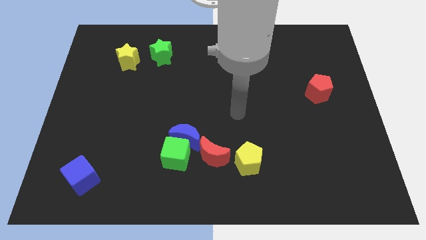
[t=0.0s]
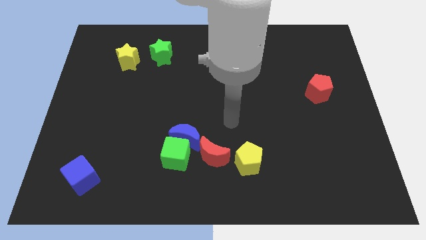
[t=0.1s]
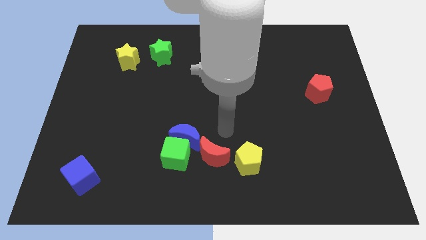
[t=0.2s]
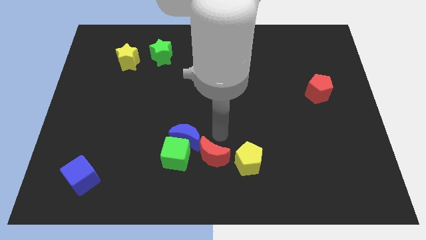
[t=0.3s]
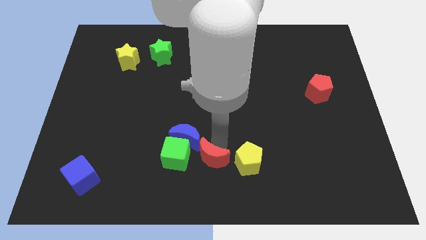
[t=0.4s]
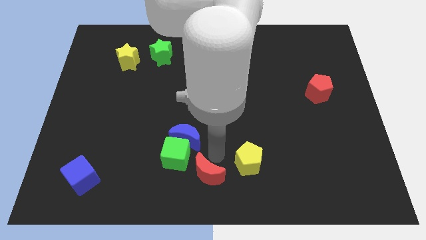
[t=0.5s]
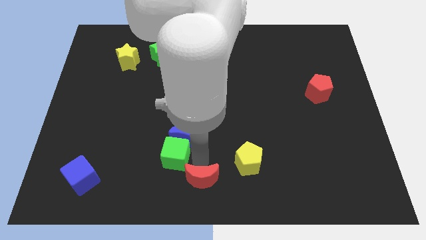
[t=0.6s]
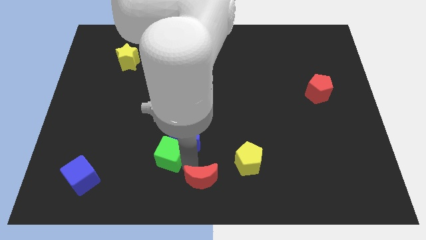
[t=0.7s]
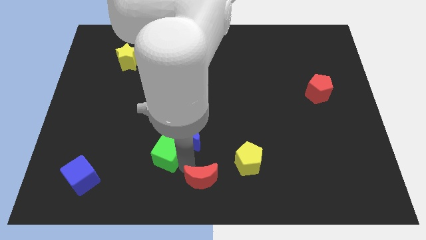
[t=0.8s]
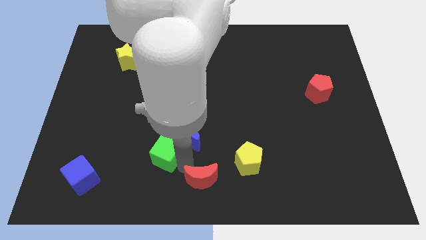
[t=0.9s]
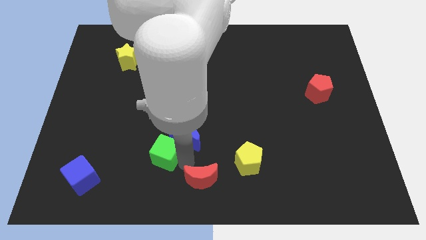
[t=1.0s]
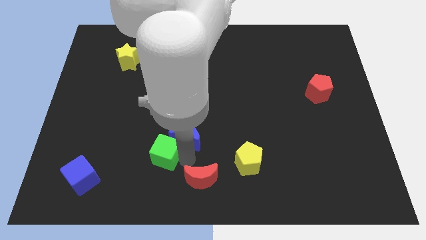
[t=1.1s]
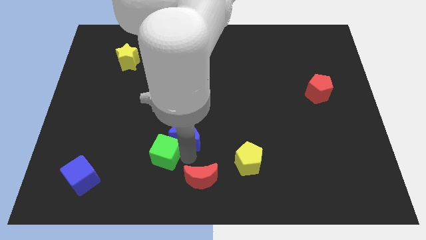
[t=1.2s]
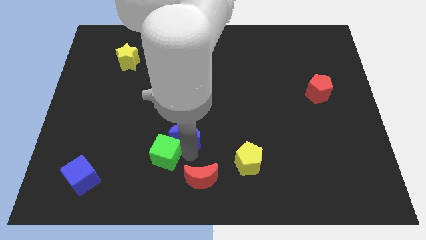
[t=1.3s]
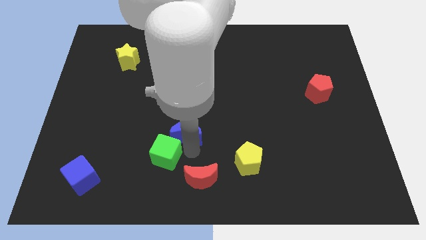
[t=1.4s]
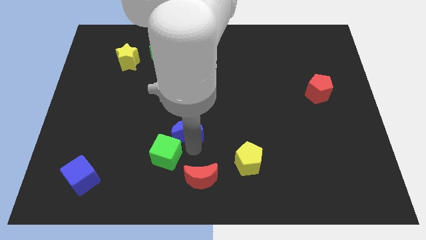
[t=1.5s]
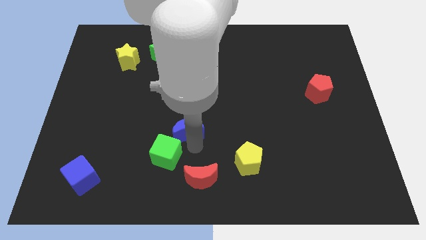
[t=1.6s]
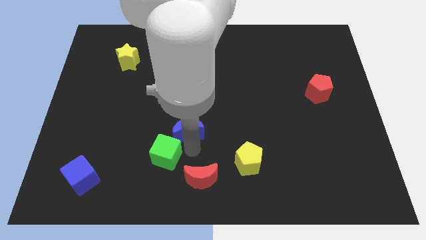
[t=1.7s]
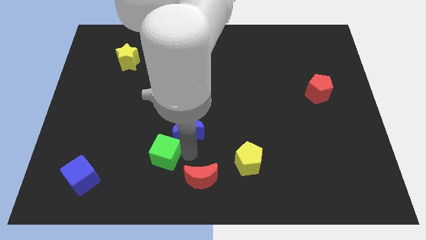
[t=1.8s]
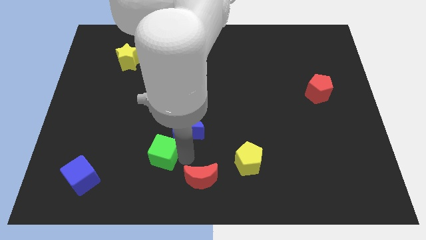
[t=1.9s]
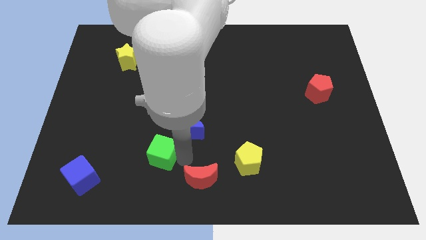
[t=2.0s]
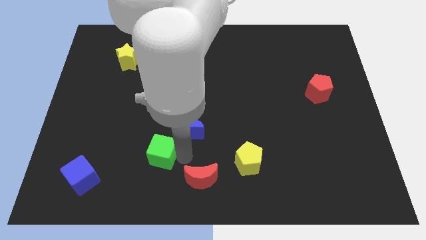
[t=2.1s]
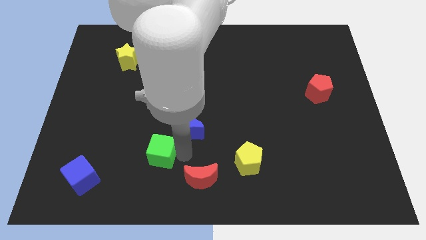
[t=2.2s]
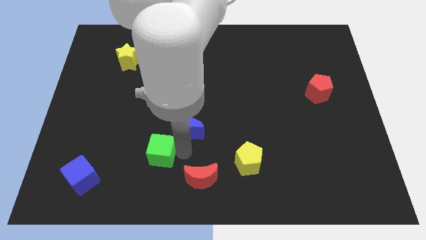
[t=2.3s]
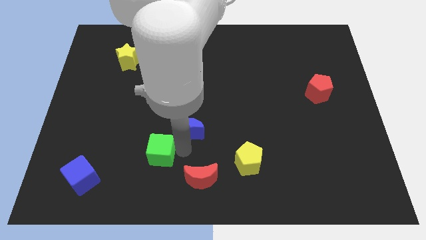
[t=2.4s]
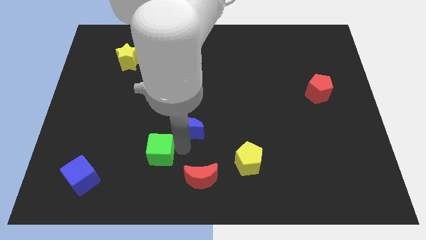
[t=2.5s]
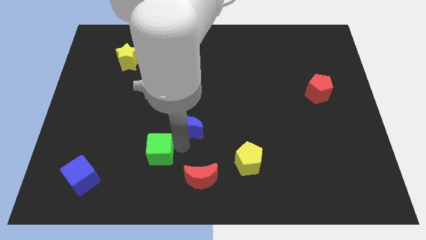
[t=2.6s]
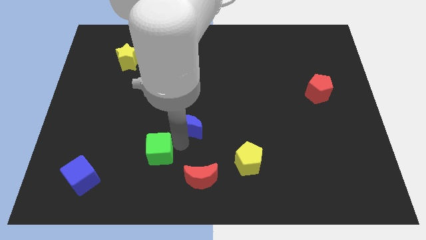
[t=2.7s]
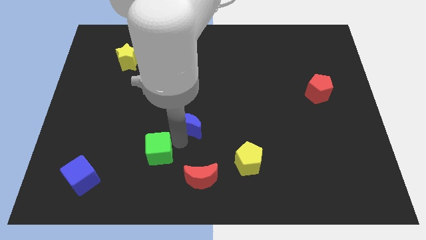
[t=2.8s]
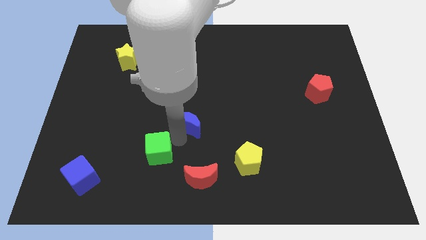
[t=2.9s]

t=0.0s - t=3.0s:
pull the blue moon apart from the green cube and red moon

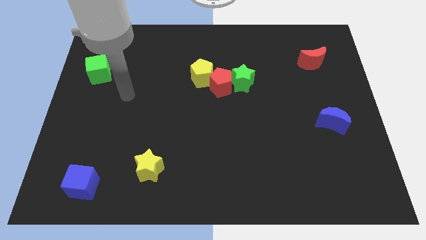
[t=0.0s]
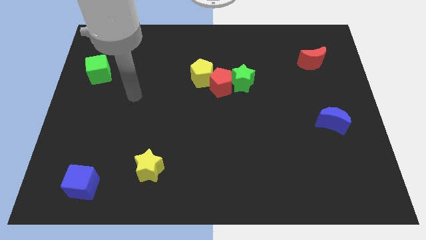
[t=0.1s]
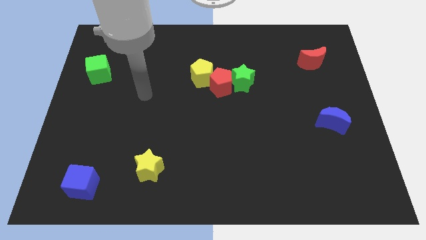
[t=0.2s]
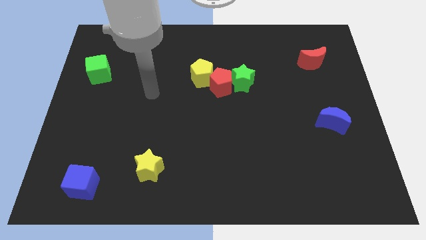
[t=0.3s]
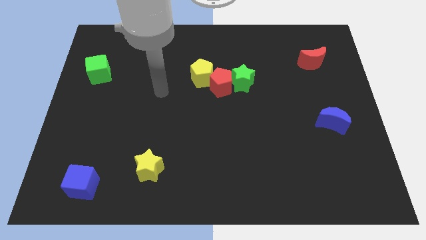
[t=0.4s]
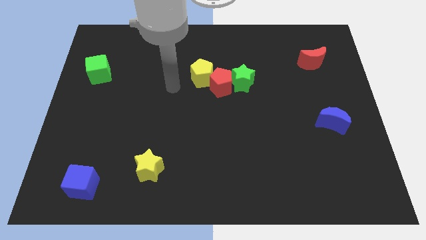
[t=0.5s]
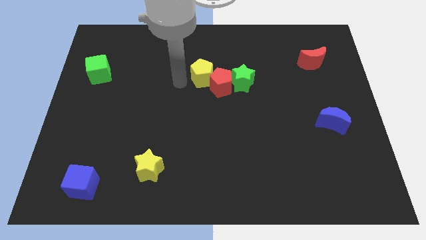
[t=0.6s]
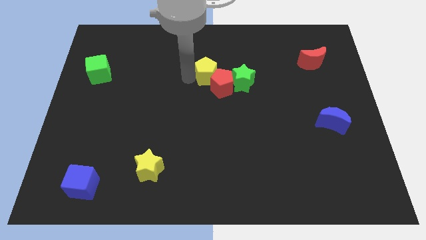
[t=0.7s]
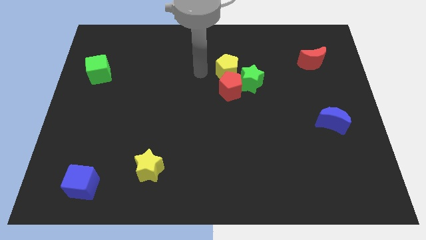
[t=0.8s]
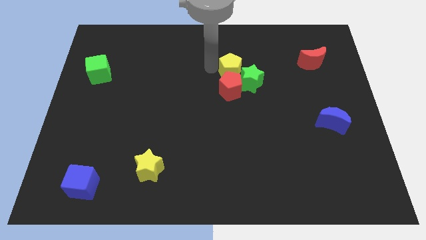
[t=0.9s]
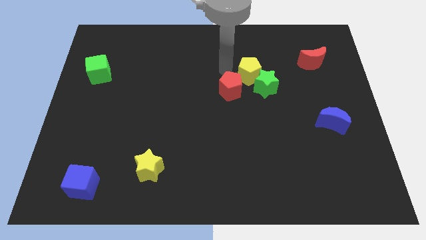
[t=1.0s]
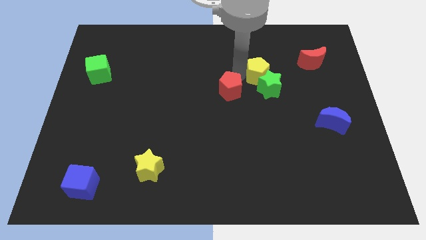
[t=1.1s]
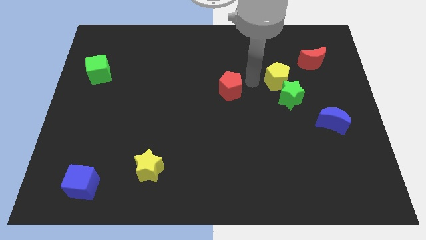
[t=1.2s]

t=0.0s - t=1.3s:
move the red pentagon away from the green star and yellow pentagon

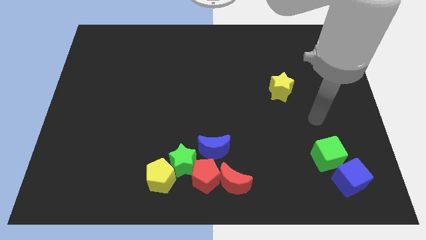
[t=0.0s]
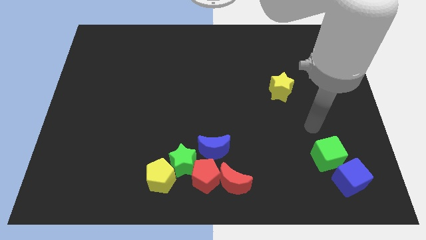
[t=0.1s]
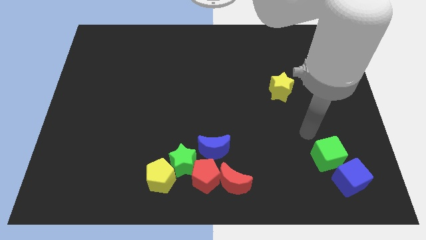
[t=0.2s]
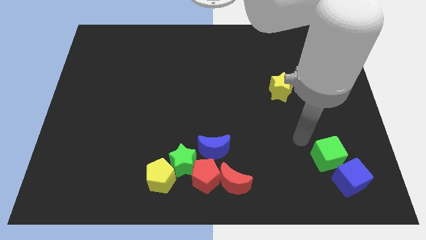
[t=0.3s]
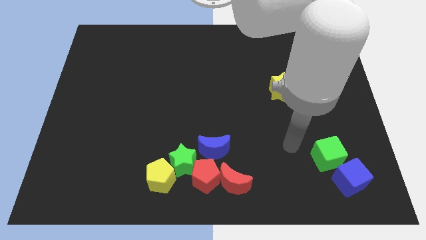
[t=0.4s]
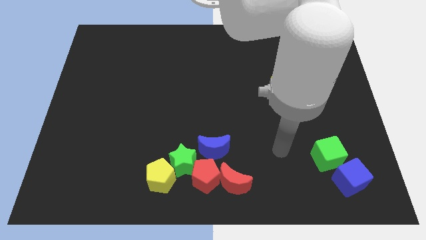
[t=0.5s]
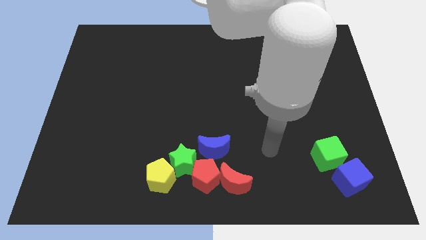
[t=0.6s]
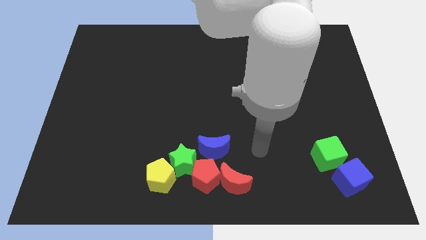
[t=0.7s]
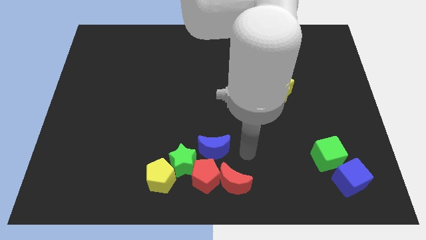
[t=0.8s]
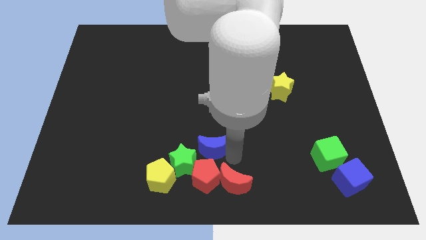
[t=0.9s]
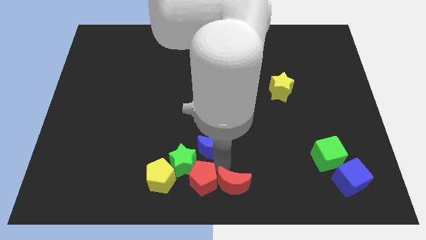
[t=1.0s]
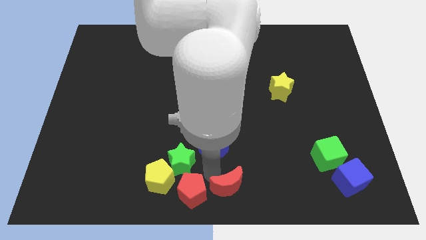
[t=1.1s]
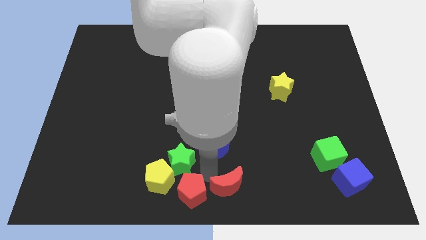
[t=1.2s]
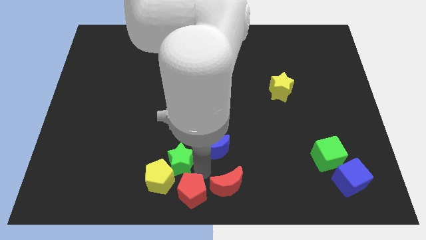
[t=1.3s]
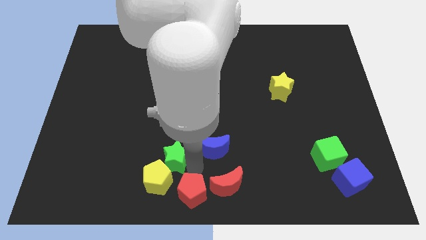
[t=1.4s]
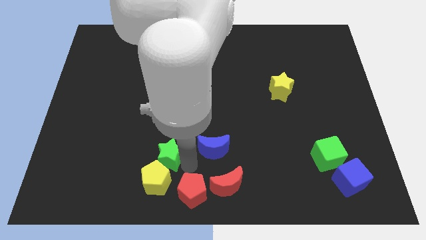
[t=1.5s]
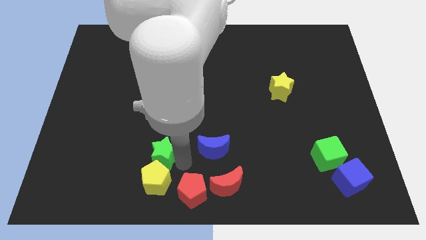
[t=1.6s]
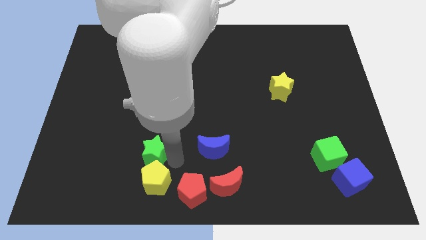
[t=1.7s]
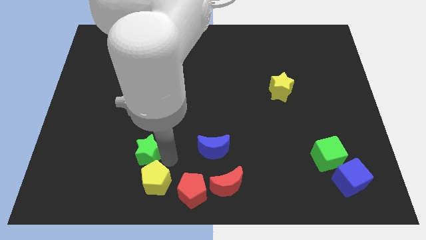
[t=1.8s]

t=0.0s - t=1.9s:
pull the green star apart from the group of blocks

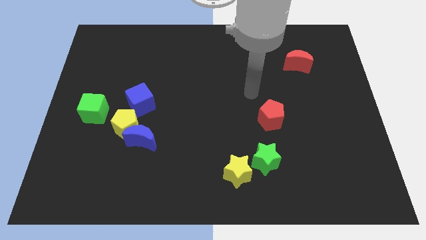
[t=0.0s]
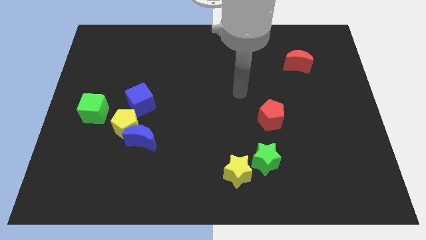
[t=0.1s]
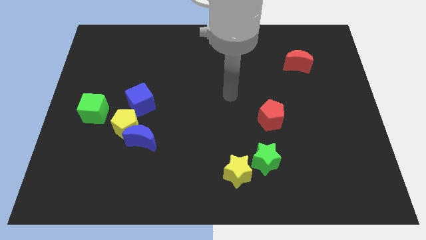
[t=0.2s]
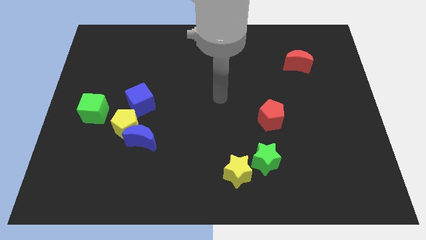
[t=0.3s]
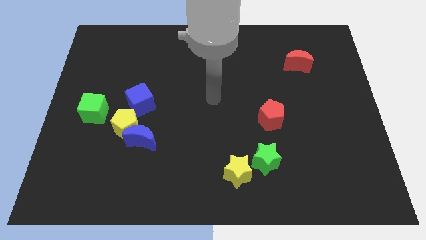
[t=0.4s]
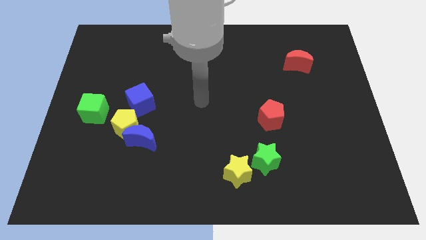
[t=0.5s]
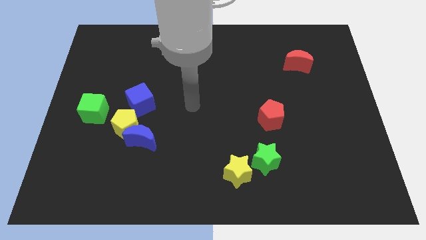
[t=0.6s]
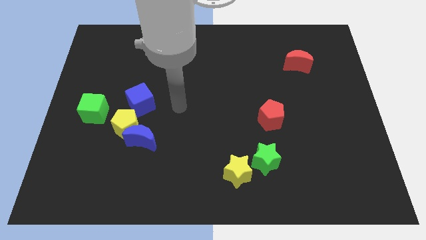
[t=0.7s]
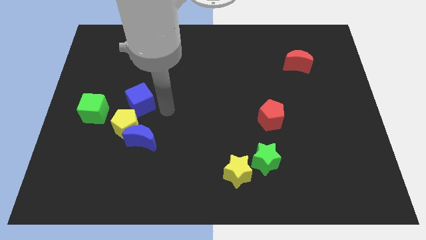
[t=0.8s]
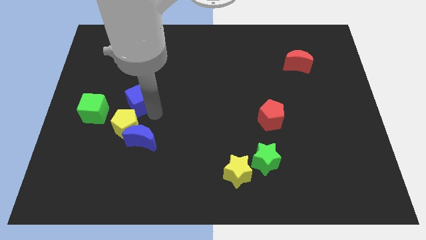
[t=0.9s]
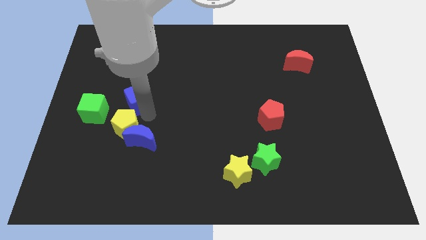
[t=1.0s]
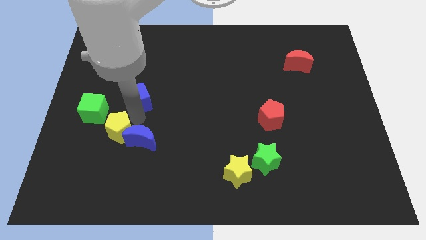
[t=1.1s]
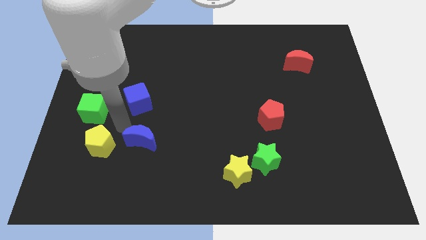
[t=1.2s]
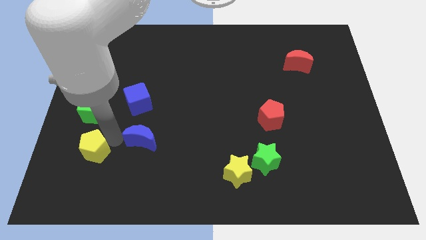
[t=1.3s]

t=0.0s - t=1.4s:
separate the blue moon from the yellow pentagon

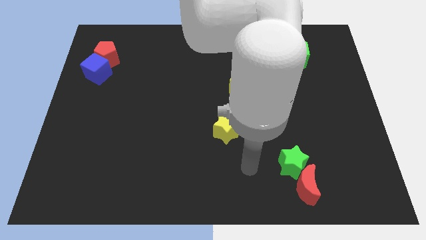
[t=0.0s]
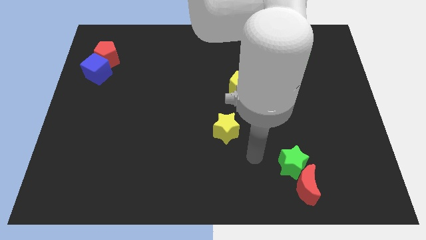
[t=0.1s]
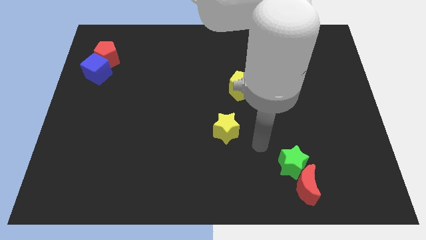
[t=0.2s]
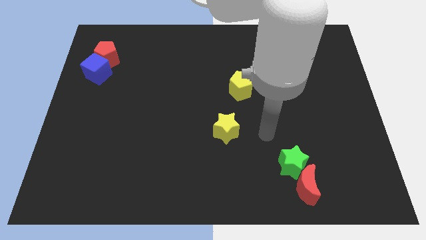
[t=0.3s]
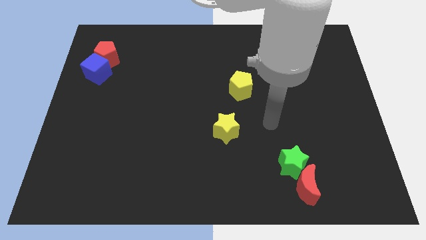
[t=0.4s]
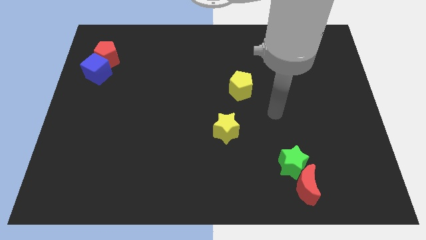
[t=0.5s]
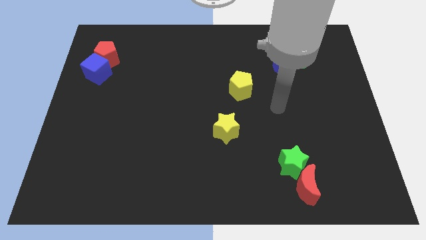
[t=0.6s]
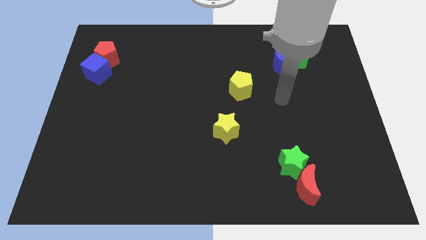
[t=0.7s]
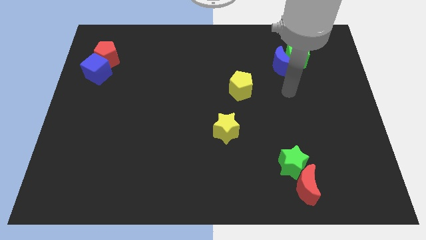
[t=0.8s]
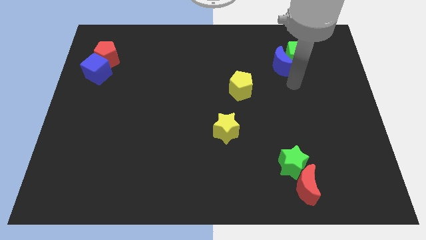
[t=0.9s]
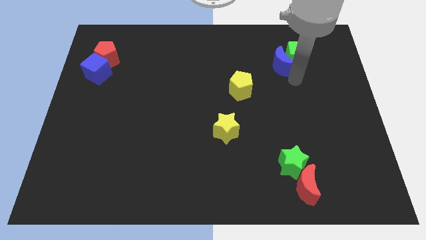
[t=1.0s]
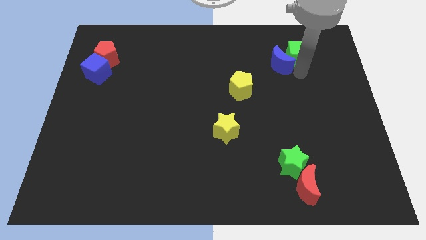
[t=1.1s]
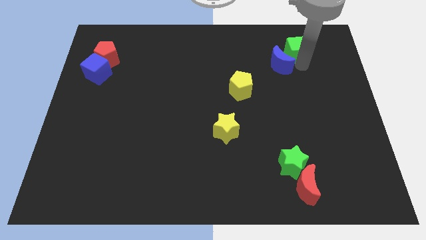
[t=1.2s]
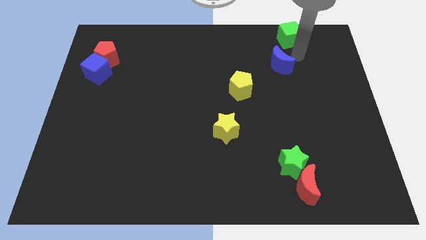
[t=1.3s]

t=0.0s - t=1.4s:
pull the blue moon apart from the green cube

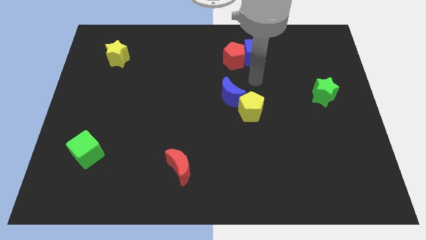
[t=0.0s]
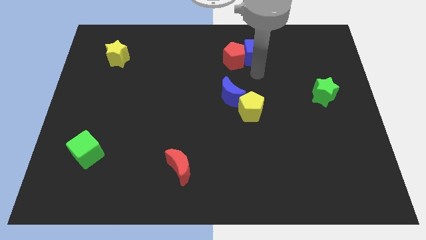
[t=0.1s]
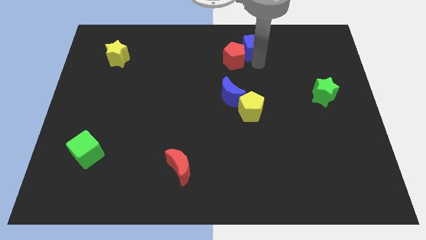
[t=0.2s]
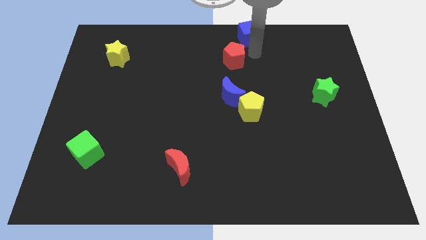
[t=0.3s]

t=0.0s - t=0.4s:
move the red pentagon away from the blue cube

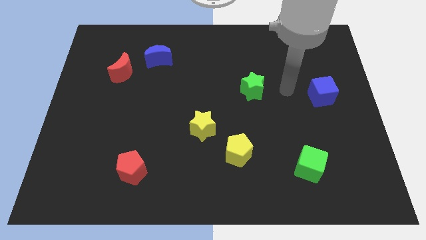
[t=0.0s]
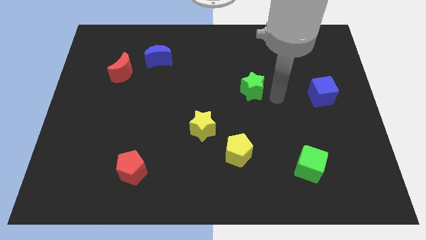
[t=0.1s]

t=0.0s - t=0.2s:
pull the red moon apart from the blue moon
